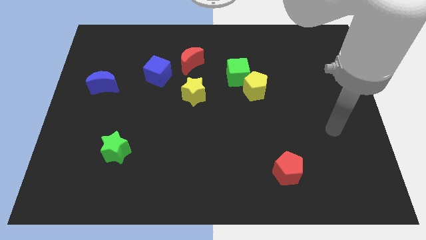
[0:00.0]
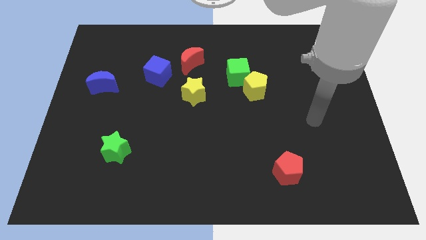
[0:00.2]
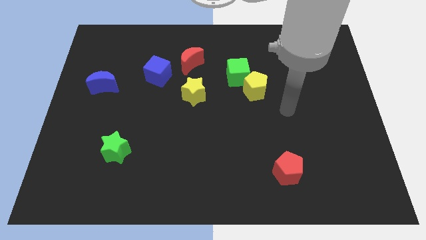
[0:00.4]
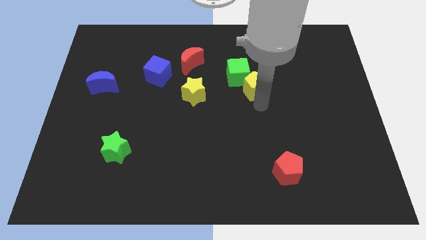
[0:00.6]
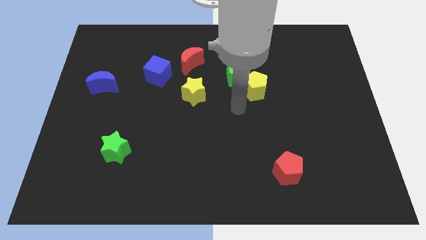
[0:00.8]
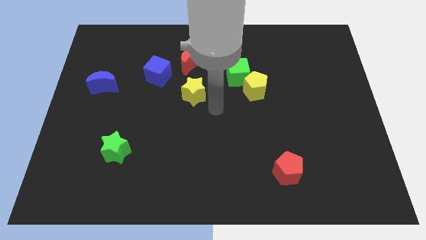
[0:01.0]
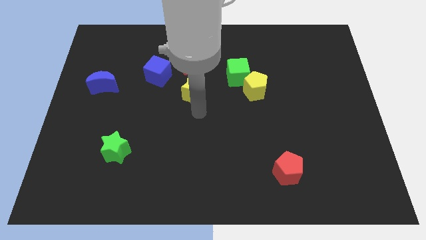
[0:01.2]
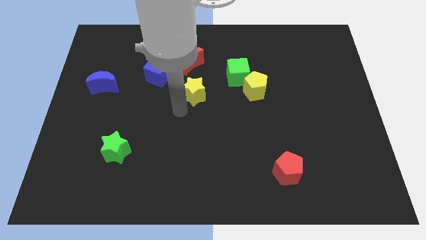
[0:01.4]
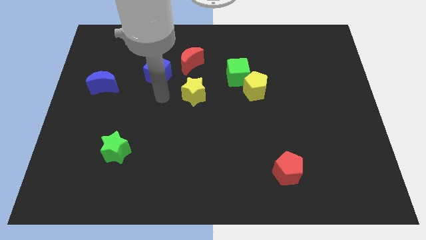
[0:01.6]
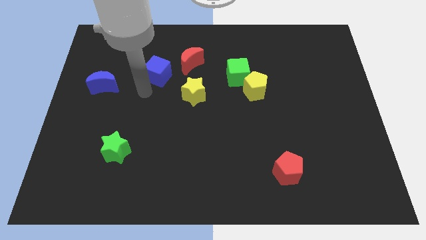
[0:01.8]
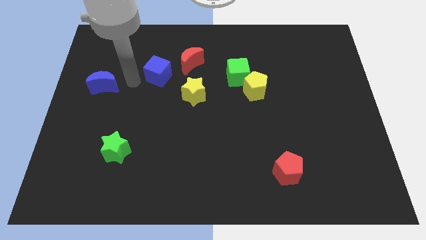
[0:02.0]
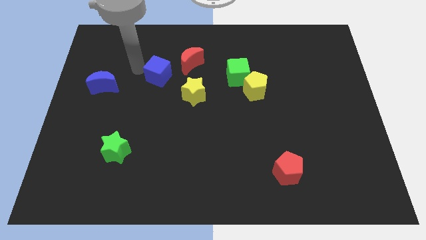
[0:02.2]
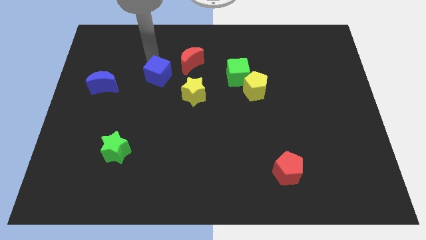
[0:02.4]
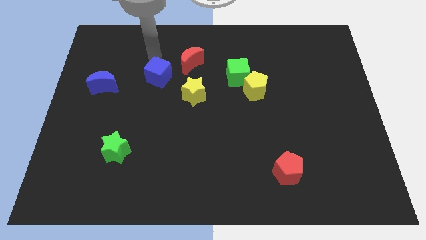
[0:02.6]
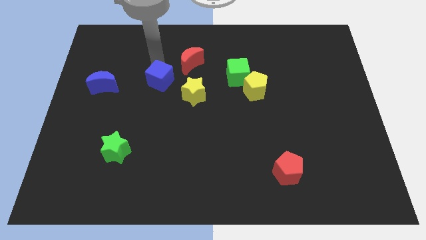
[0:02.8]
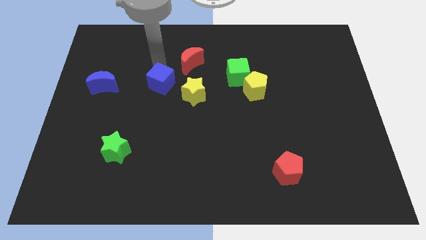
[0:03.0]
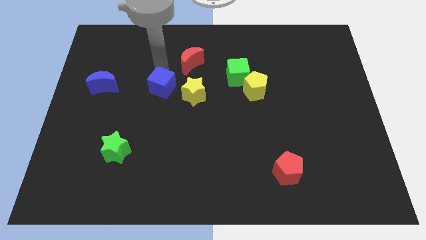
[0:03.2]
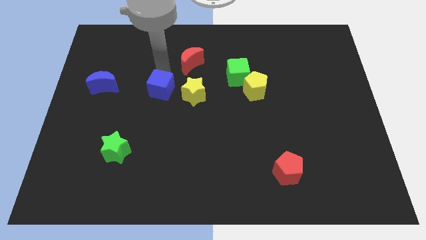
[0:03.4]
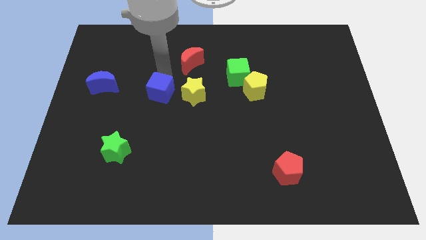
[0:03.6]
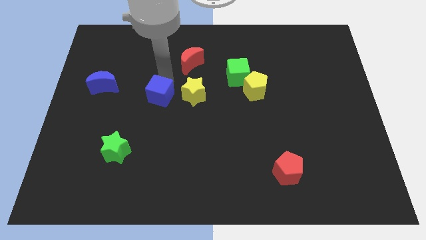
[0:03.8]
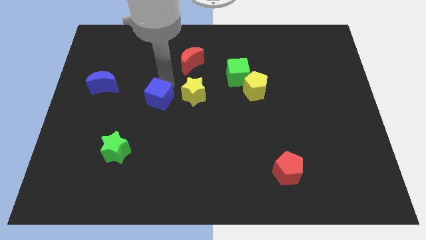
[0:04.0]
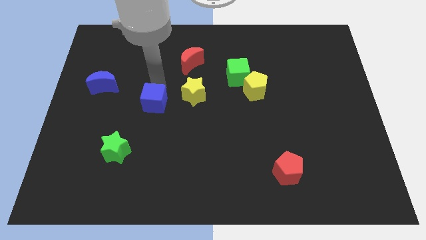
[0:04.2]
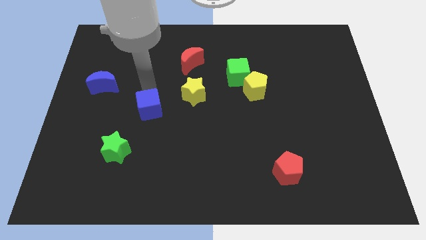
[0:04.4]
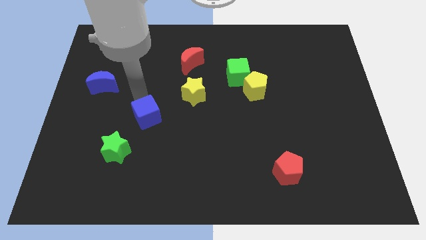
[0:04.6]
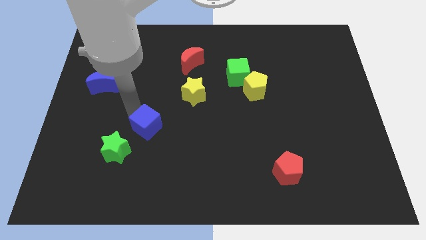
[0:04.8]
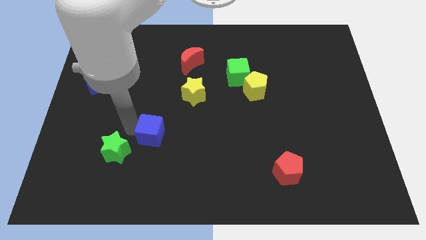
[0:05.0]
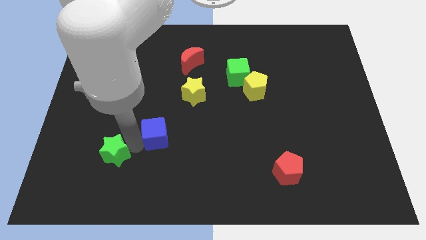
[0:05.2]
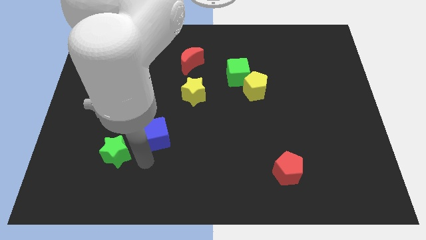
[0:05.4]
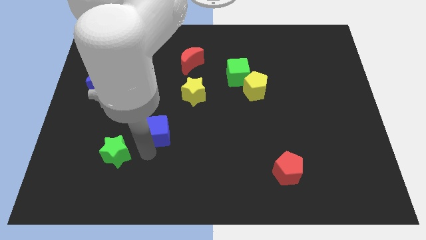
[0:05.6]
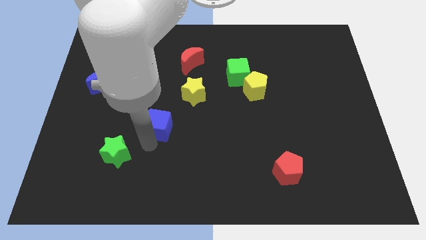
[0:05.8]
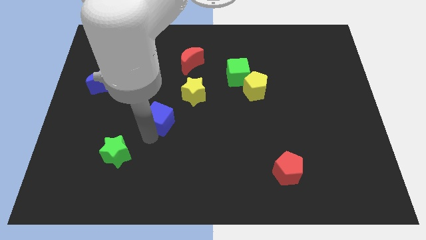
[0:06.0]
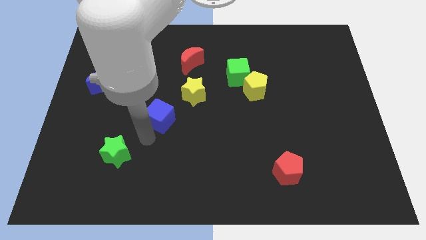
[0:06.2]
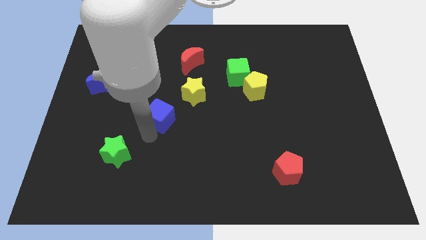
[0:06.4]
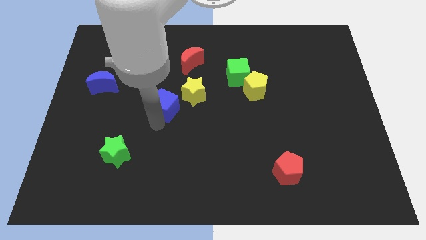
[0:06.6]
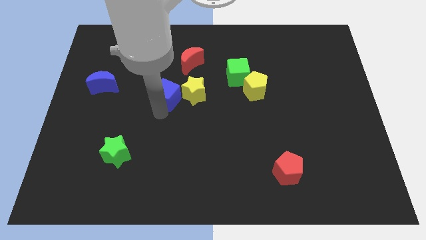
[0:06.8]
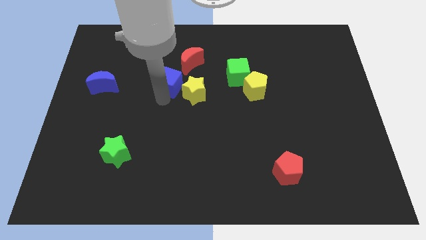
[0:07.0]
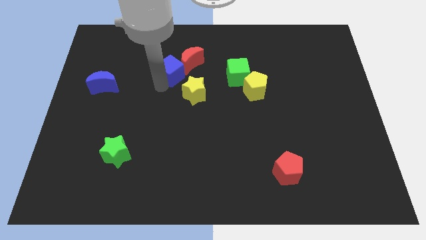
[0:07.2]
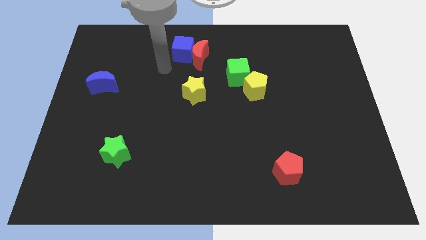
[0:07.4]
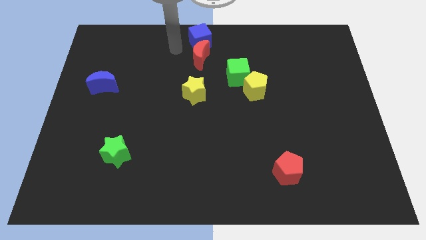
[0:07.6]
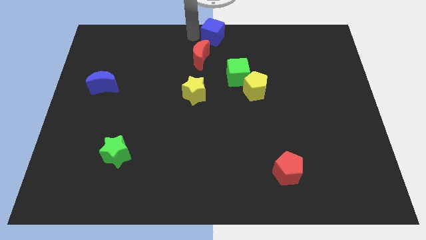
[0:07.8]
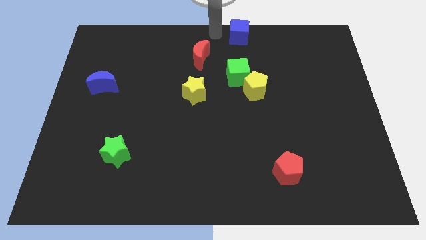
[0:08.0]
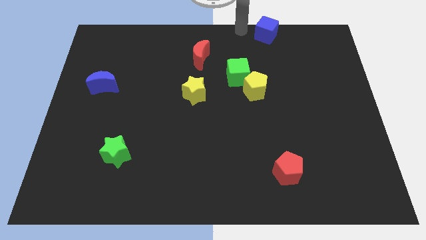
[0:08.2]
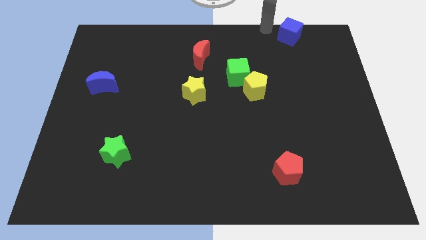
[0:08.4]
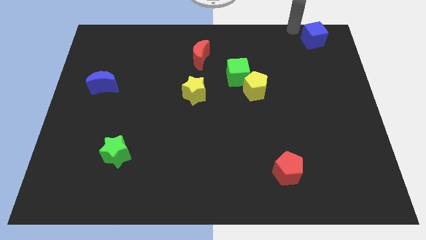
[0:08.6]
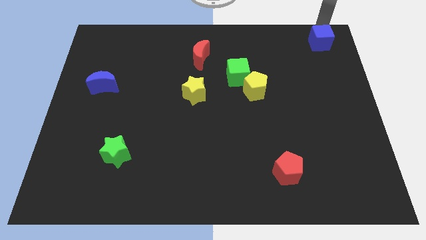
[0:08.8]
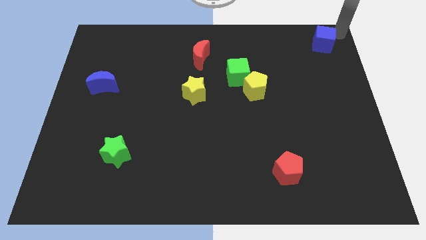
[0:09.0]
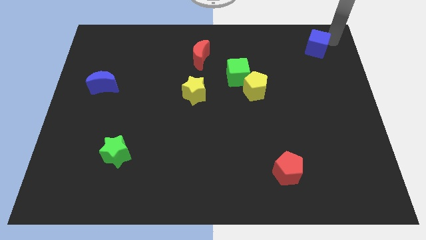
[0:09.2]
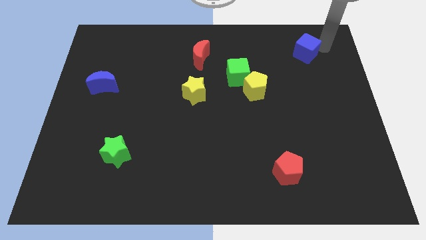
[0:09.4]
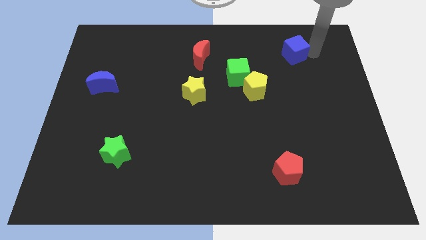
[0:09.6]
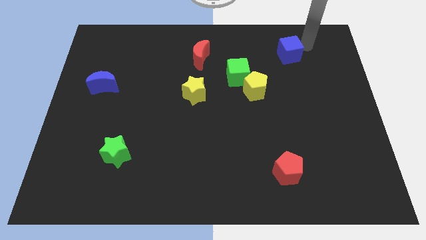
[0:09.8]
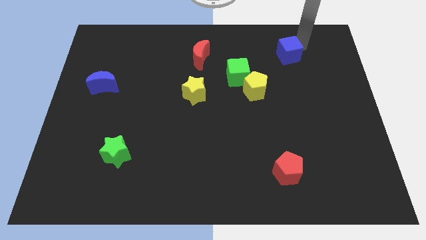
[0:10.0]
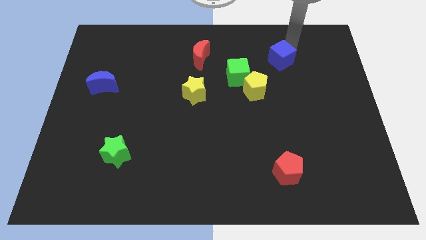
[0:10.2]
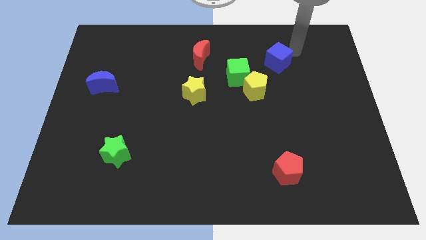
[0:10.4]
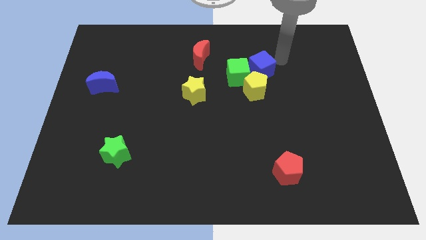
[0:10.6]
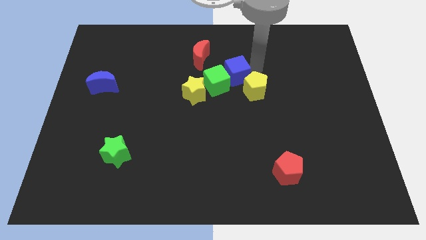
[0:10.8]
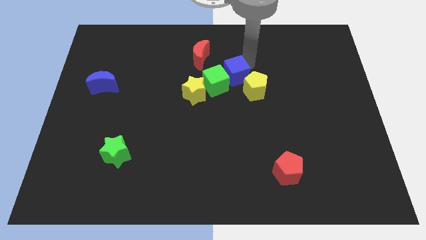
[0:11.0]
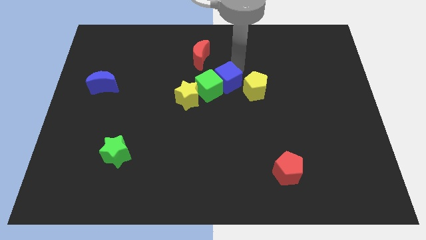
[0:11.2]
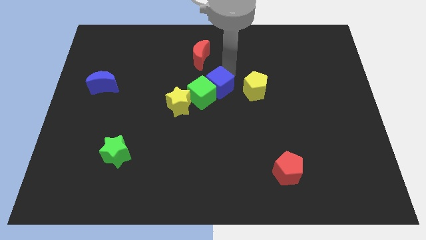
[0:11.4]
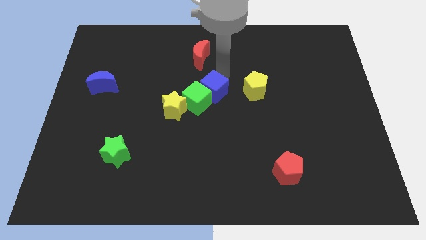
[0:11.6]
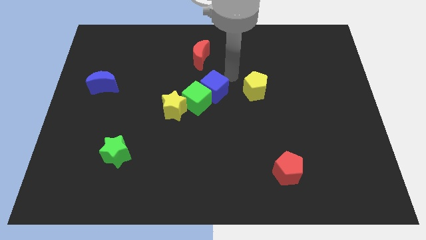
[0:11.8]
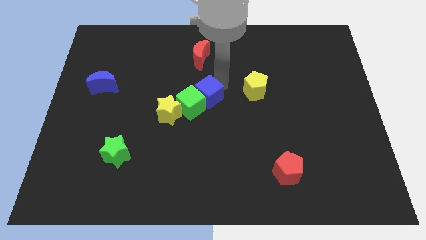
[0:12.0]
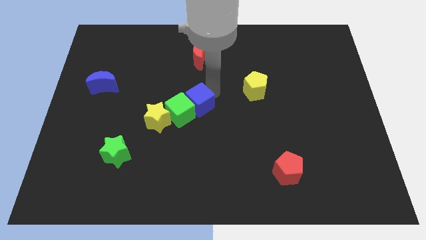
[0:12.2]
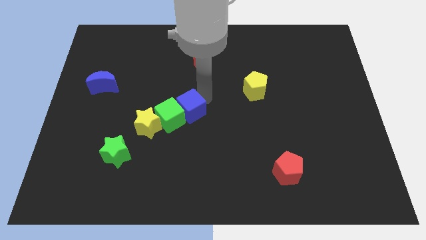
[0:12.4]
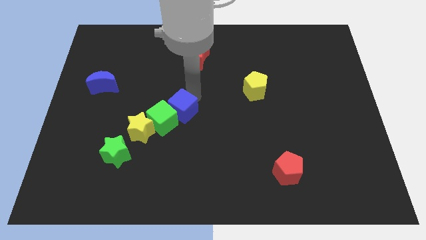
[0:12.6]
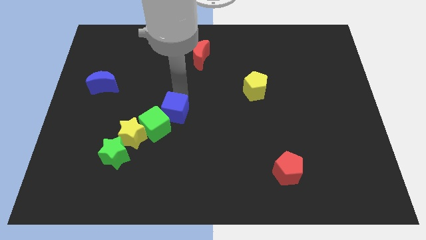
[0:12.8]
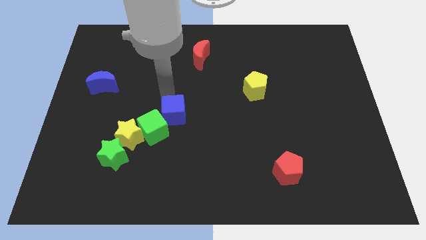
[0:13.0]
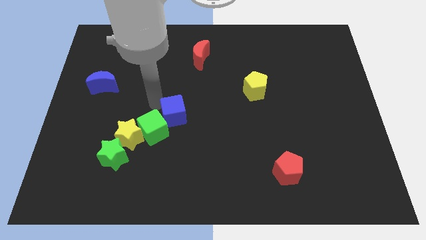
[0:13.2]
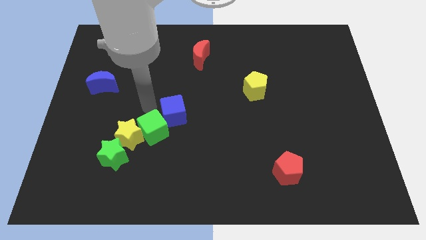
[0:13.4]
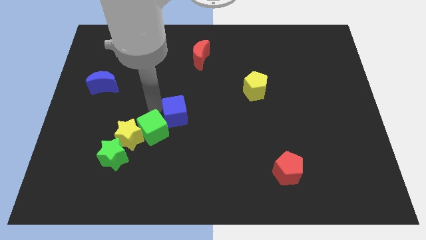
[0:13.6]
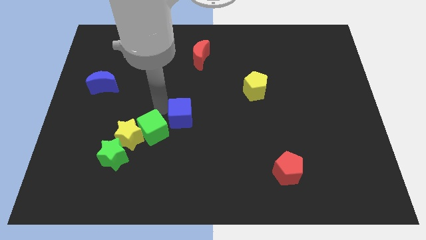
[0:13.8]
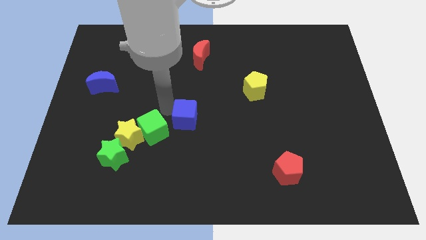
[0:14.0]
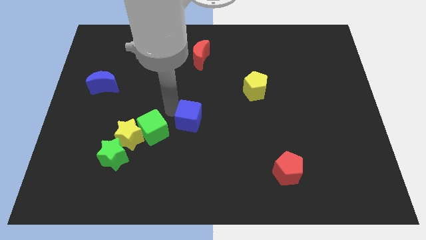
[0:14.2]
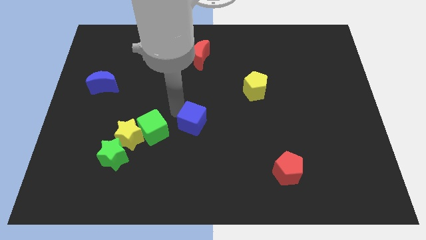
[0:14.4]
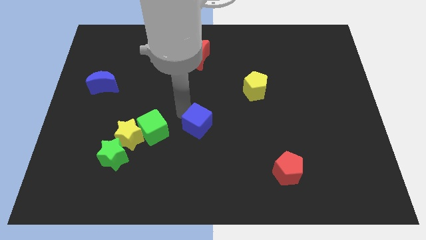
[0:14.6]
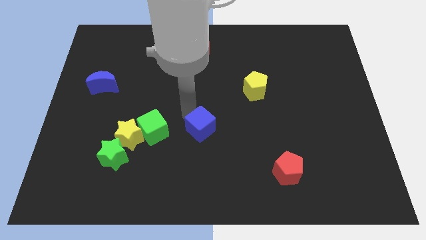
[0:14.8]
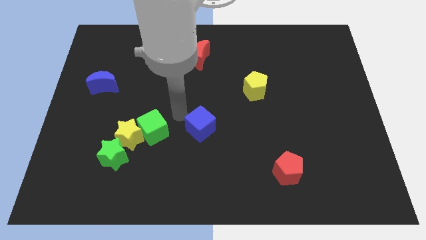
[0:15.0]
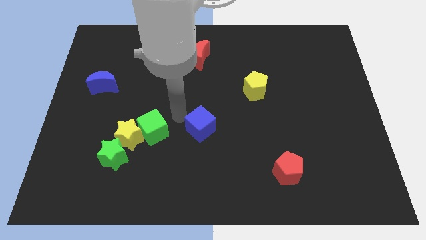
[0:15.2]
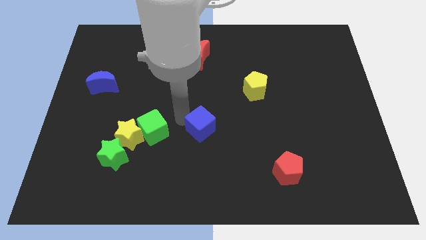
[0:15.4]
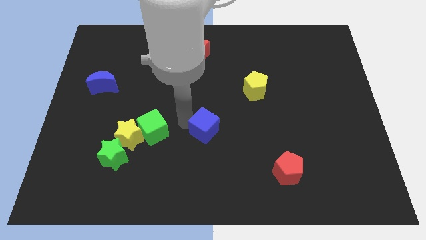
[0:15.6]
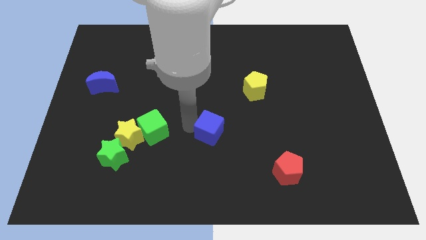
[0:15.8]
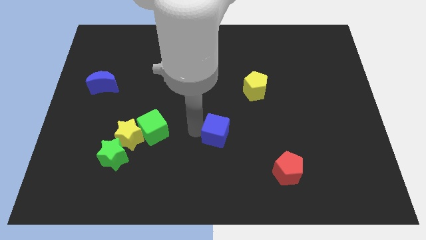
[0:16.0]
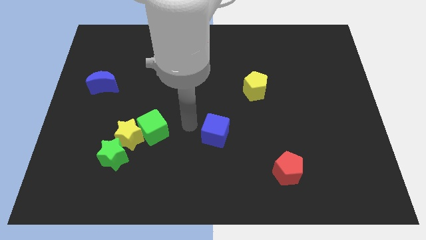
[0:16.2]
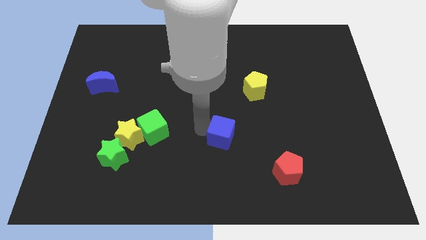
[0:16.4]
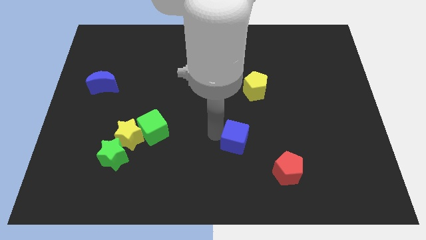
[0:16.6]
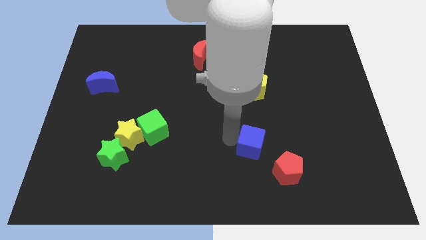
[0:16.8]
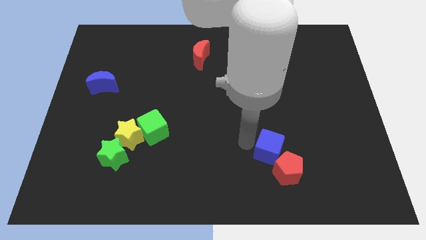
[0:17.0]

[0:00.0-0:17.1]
move the blue cube towards the red pentagon
